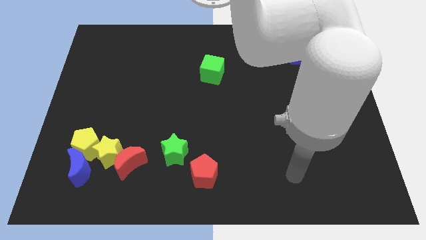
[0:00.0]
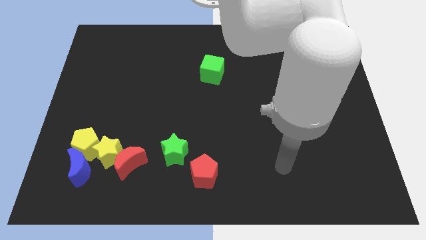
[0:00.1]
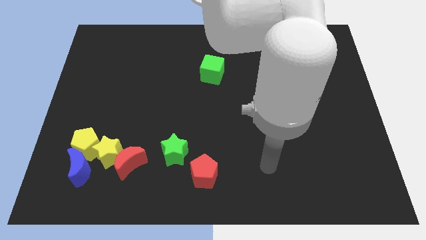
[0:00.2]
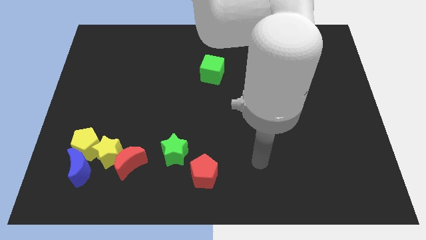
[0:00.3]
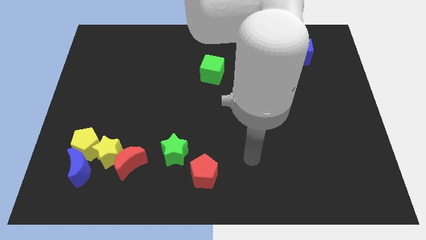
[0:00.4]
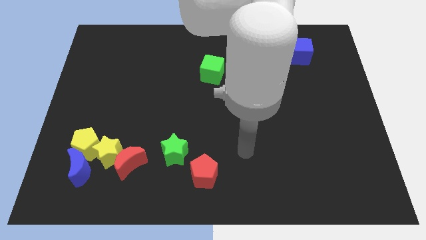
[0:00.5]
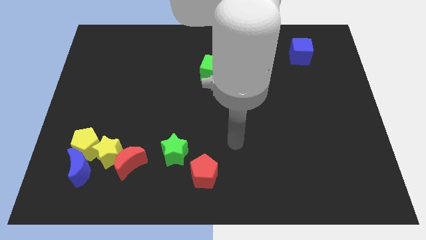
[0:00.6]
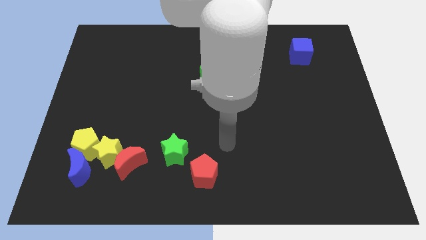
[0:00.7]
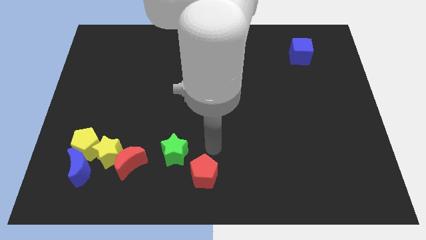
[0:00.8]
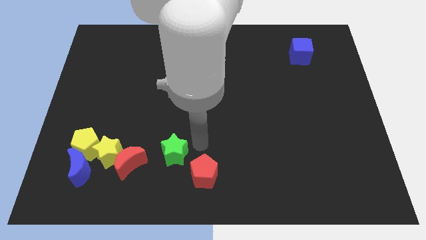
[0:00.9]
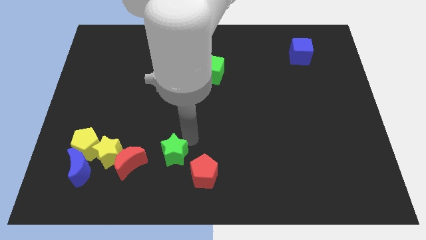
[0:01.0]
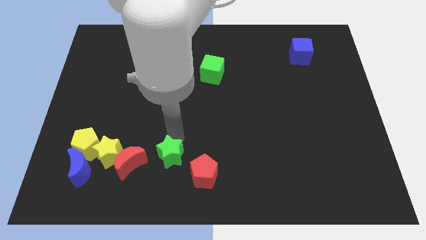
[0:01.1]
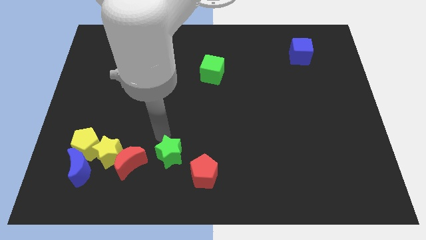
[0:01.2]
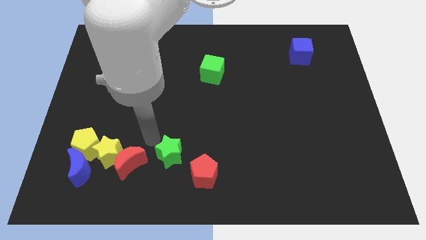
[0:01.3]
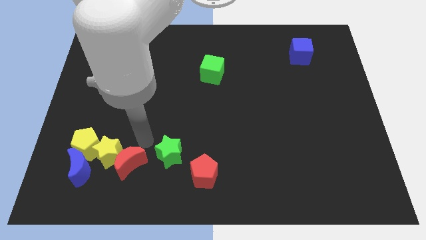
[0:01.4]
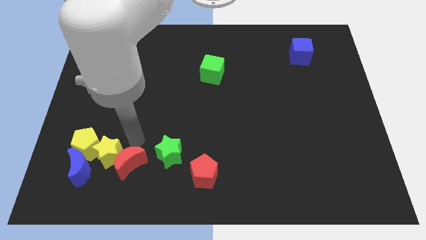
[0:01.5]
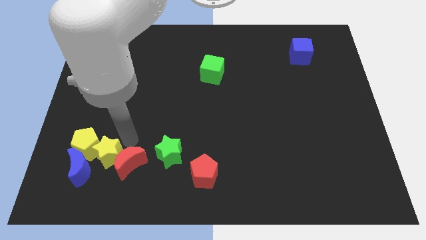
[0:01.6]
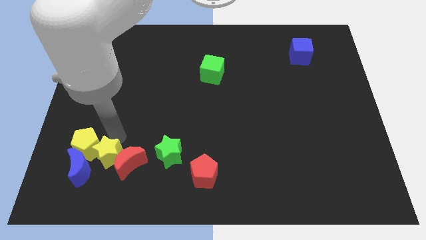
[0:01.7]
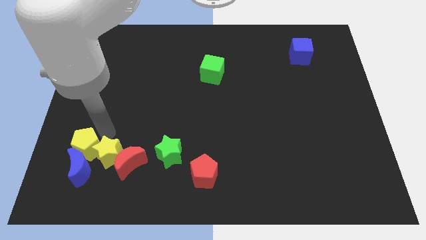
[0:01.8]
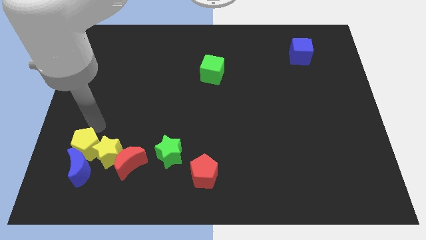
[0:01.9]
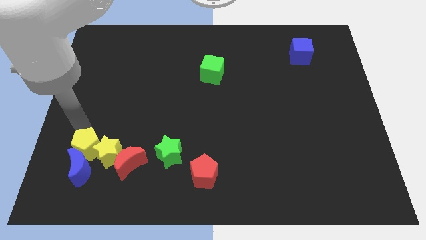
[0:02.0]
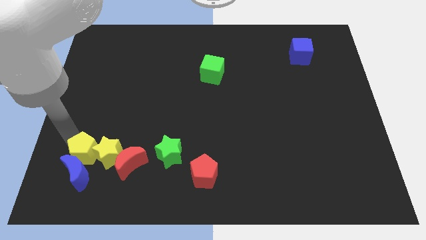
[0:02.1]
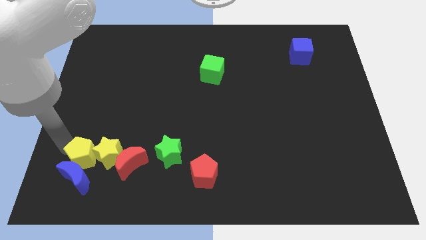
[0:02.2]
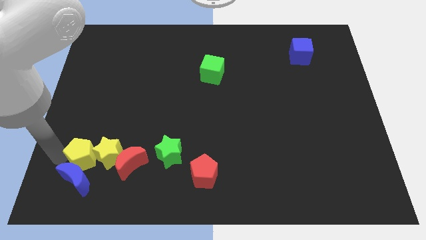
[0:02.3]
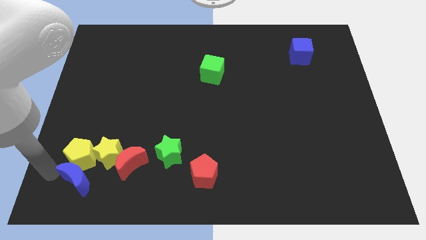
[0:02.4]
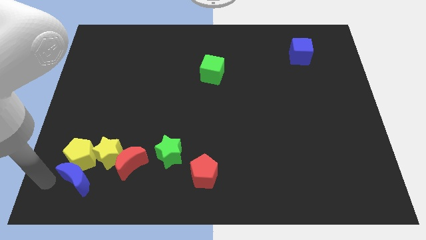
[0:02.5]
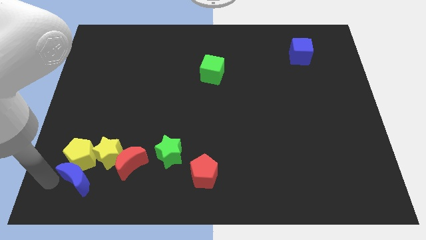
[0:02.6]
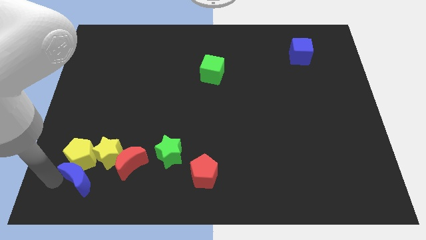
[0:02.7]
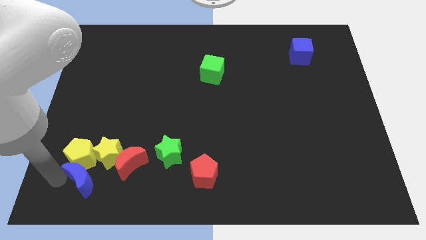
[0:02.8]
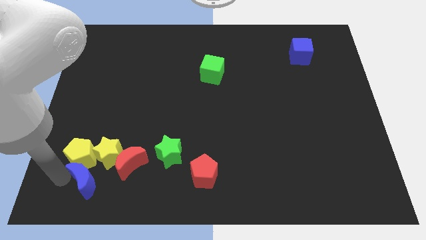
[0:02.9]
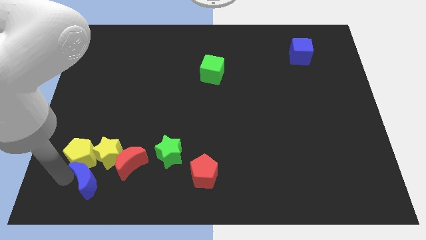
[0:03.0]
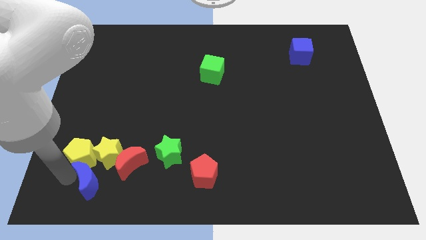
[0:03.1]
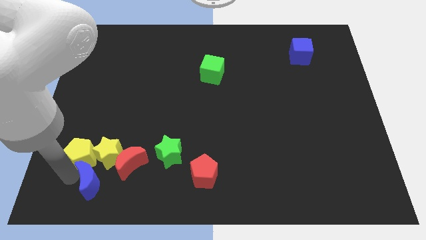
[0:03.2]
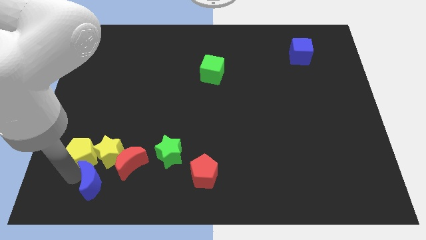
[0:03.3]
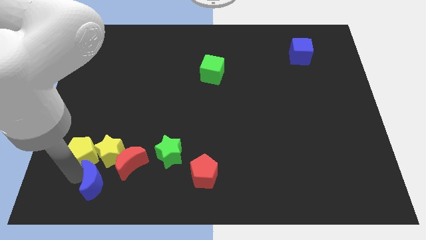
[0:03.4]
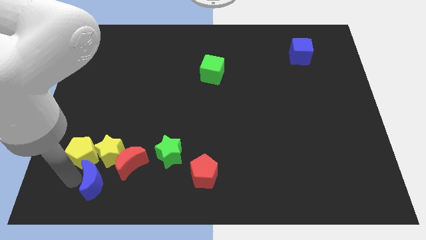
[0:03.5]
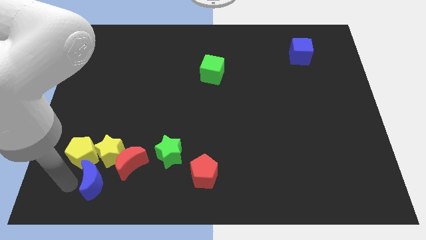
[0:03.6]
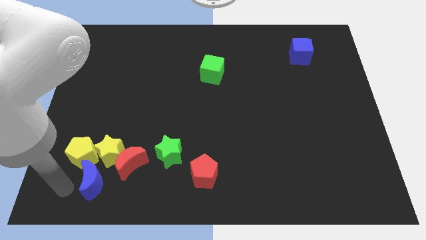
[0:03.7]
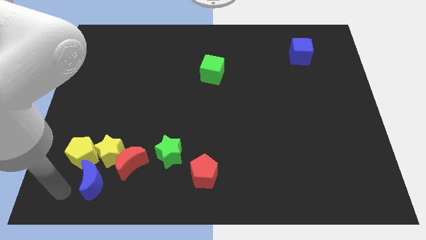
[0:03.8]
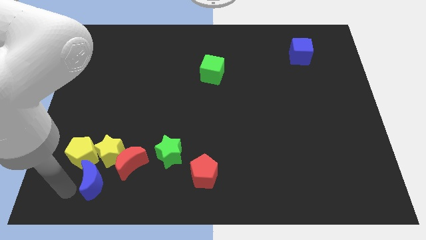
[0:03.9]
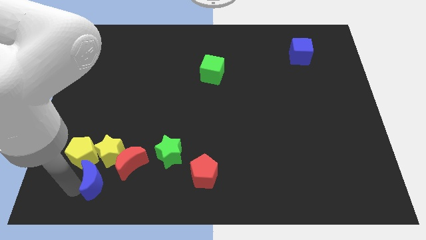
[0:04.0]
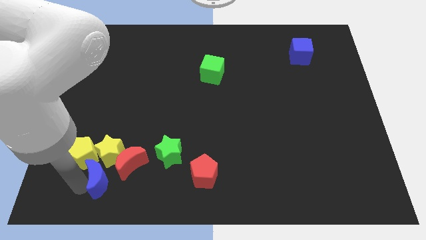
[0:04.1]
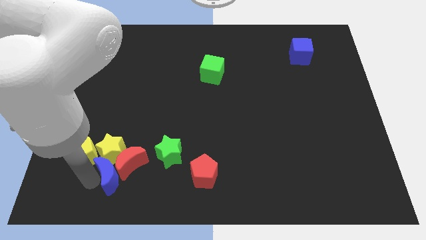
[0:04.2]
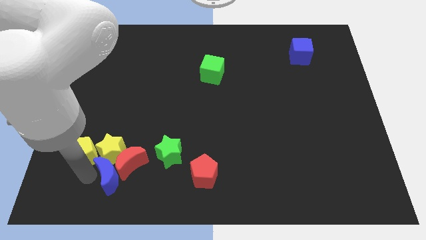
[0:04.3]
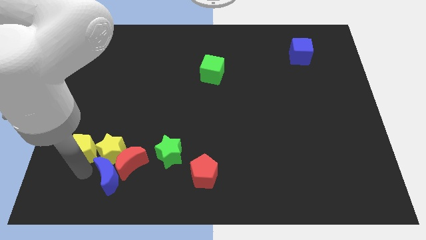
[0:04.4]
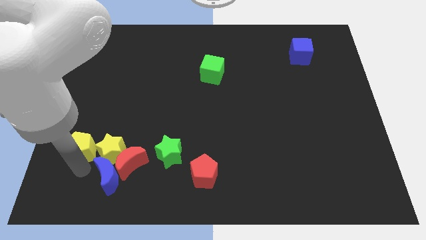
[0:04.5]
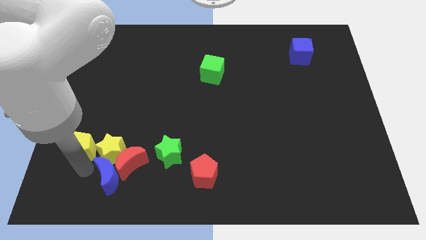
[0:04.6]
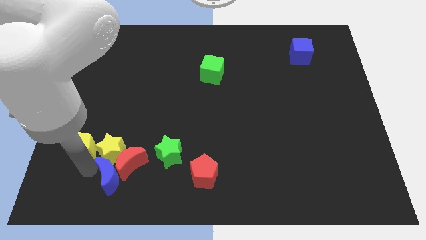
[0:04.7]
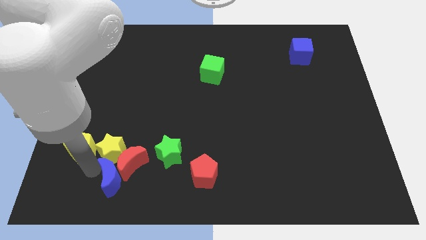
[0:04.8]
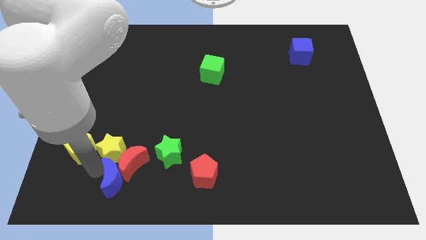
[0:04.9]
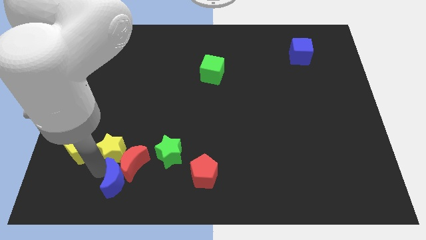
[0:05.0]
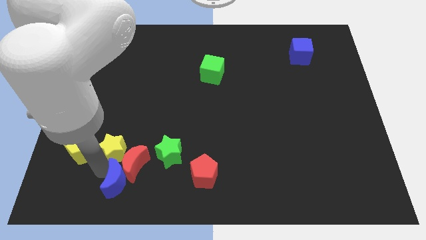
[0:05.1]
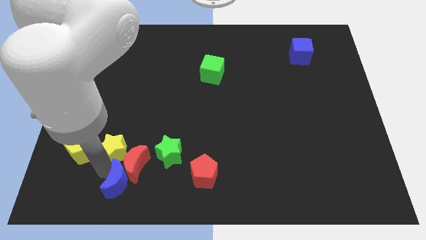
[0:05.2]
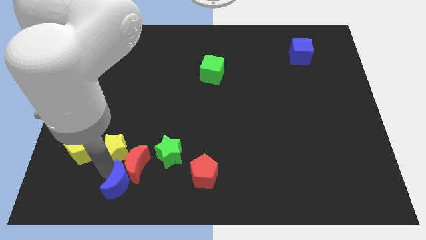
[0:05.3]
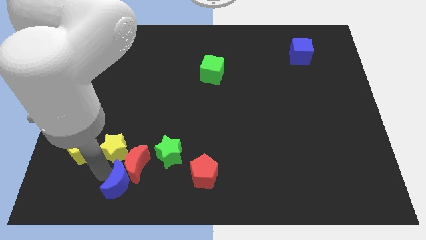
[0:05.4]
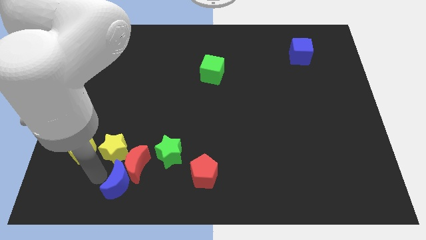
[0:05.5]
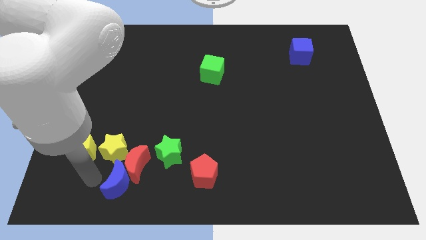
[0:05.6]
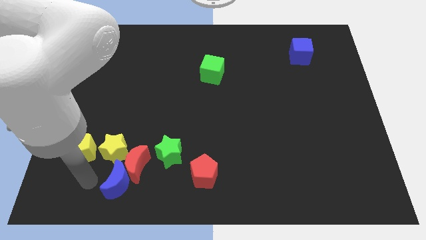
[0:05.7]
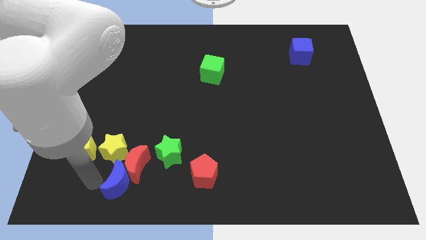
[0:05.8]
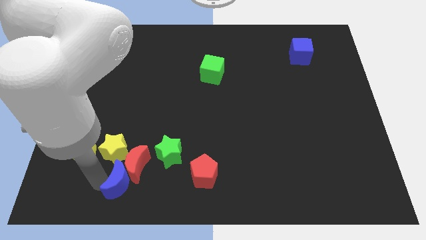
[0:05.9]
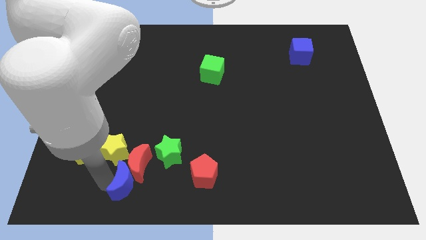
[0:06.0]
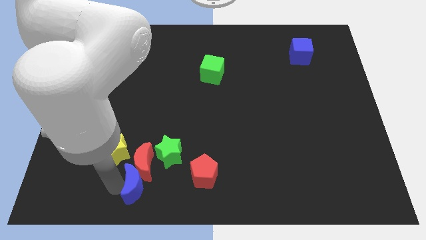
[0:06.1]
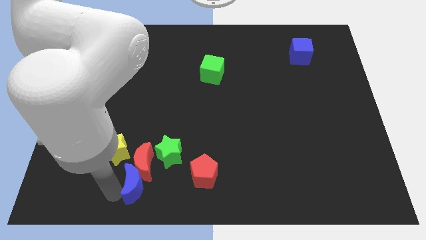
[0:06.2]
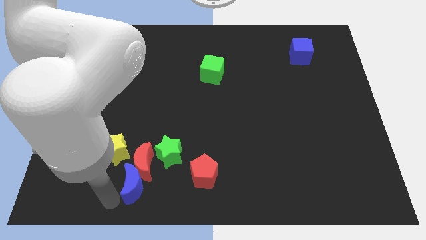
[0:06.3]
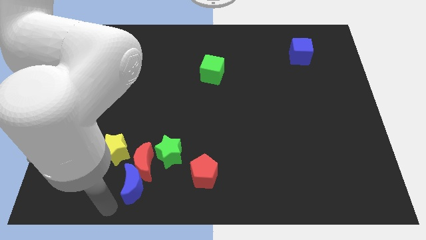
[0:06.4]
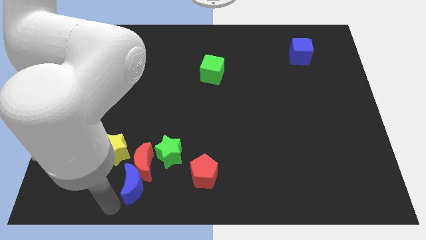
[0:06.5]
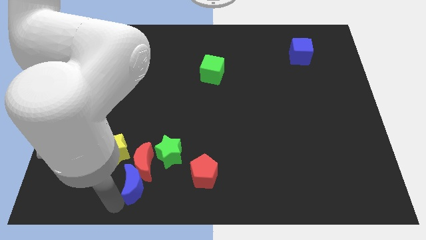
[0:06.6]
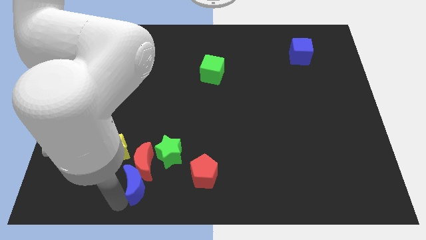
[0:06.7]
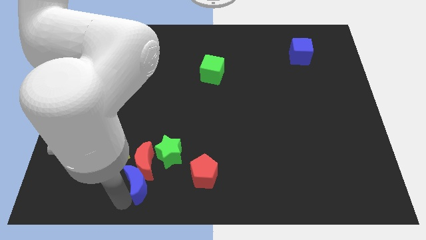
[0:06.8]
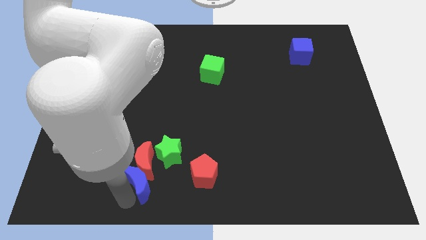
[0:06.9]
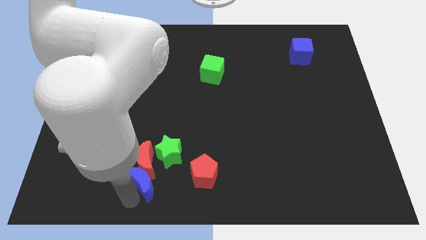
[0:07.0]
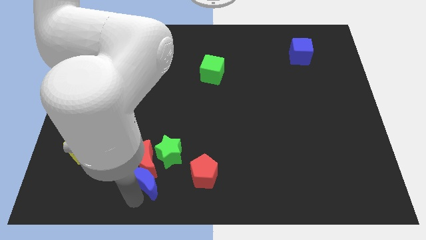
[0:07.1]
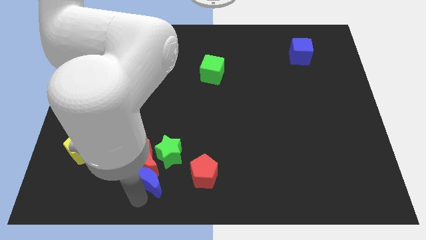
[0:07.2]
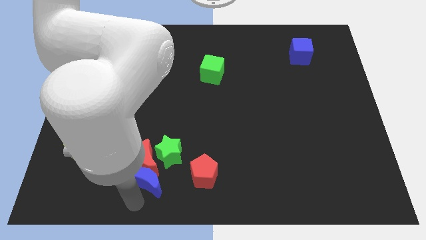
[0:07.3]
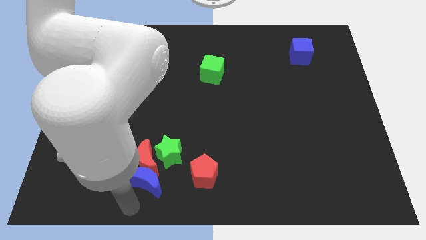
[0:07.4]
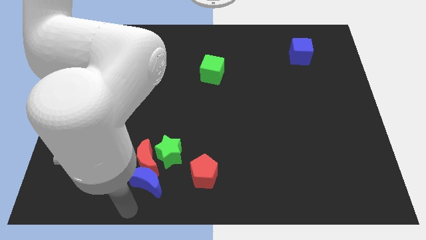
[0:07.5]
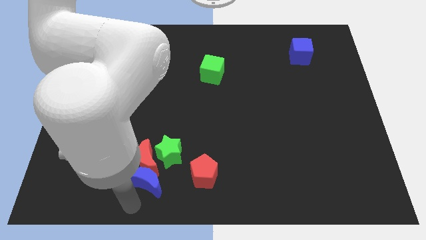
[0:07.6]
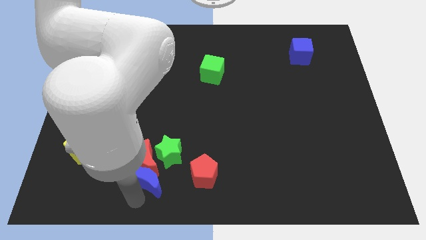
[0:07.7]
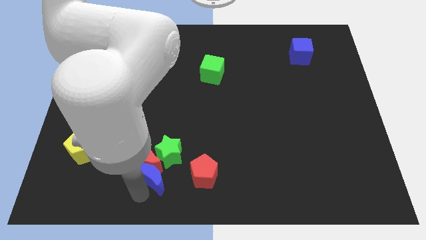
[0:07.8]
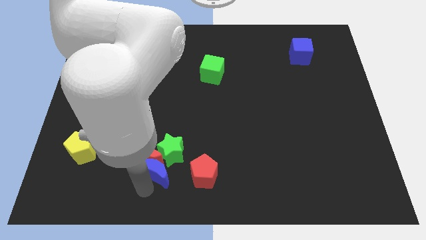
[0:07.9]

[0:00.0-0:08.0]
slide the blue moon next to the green star
